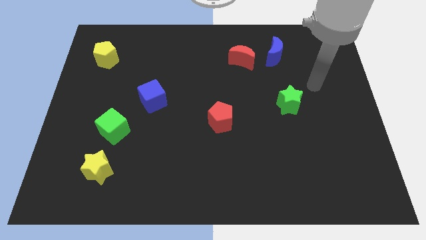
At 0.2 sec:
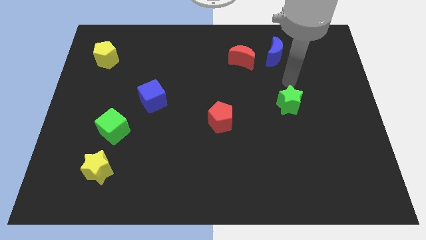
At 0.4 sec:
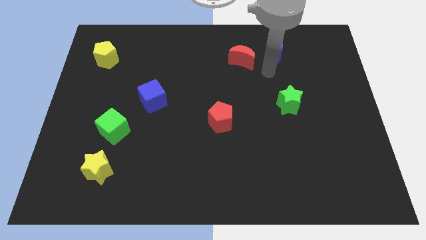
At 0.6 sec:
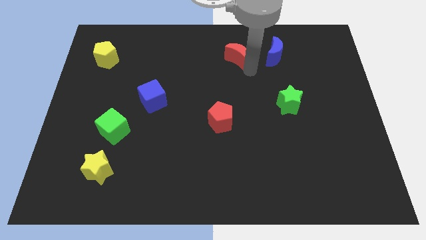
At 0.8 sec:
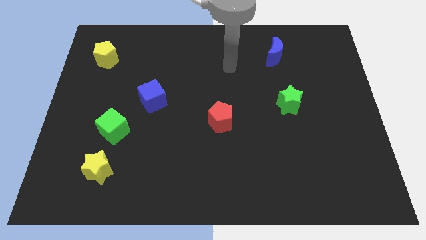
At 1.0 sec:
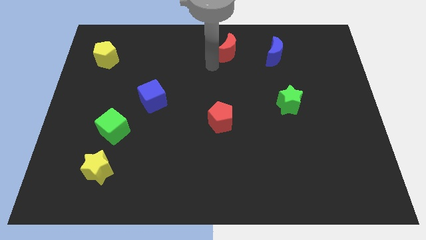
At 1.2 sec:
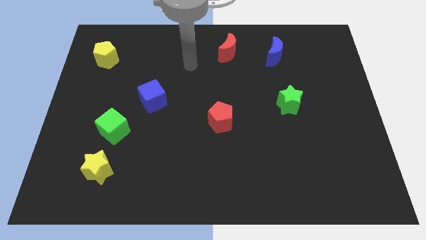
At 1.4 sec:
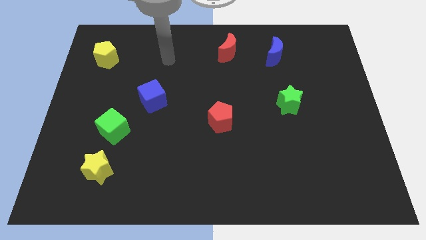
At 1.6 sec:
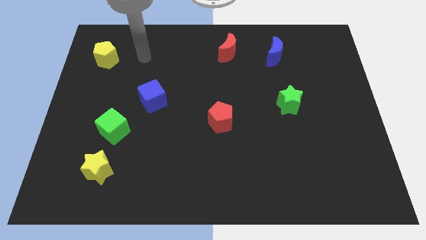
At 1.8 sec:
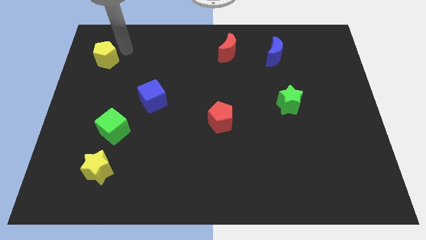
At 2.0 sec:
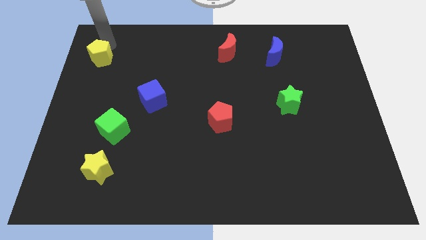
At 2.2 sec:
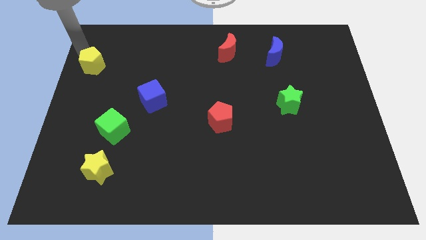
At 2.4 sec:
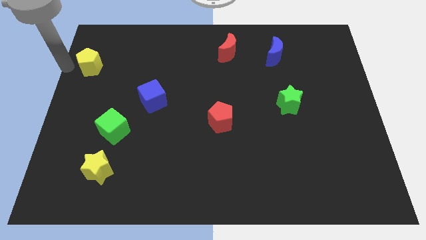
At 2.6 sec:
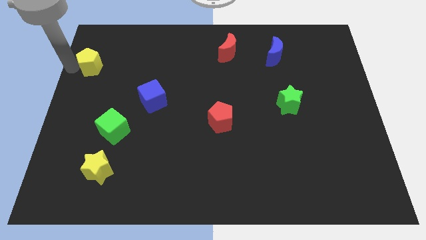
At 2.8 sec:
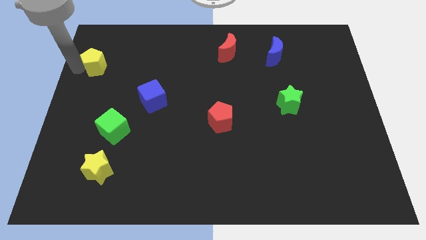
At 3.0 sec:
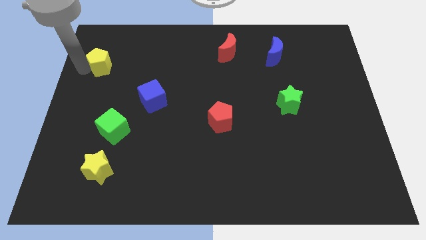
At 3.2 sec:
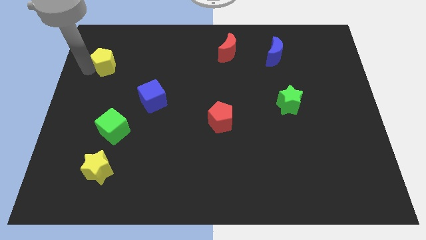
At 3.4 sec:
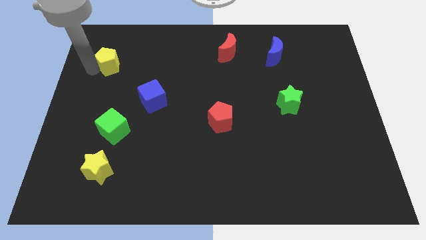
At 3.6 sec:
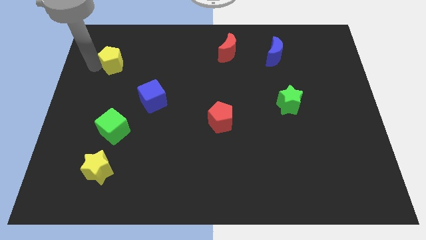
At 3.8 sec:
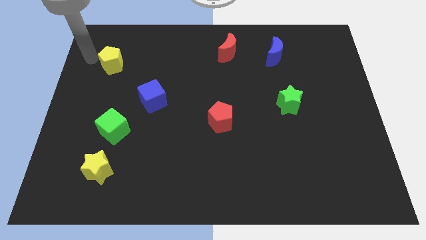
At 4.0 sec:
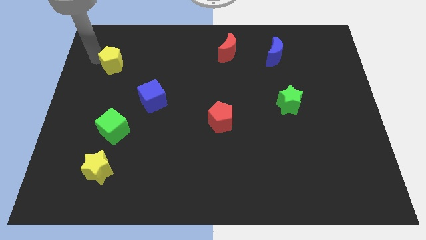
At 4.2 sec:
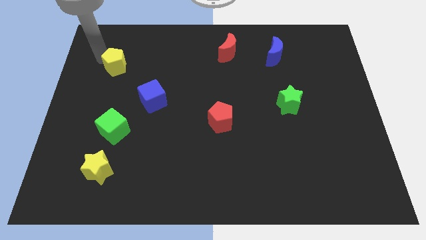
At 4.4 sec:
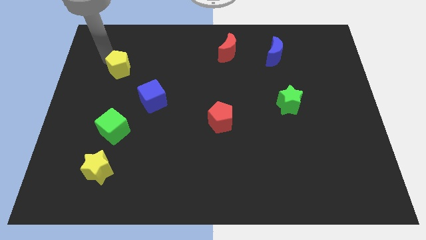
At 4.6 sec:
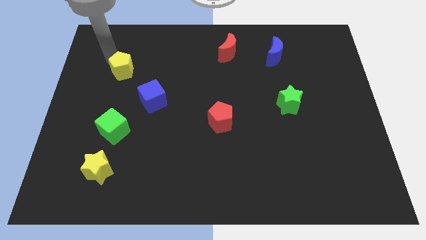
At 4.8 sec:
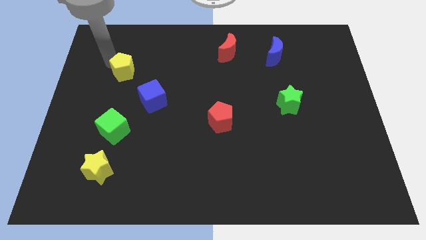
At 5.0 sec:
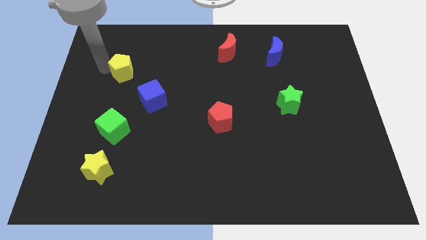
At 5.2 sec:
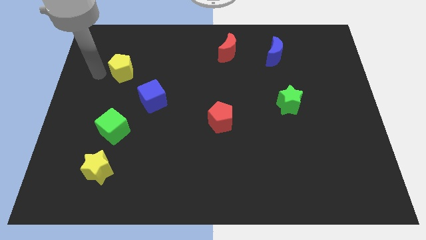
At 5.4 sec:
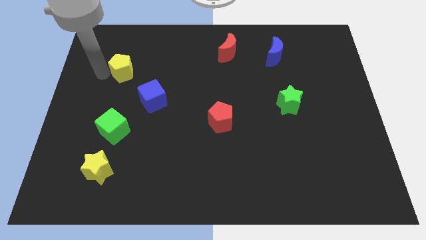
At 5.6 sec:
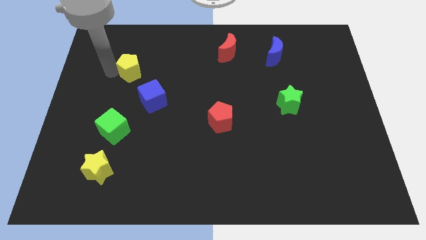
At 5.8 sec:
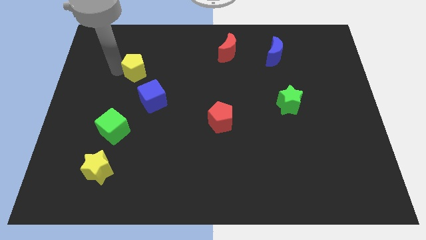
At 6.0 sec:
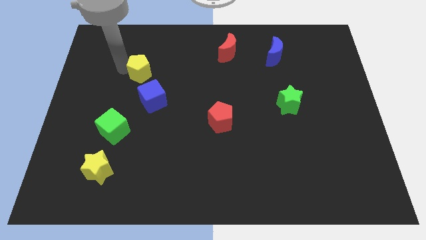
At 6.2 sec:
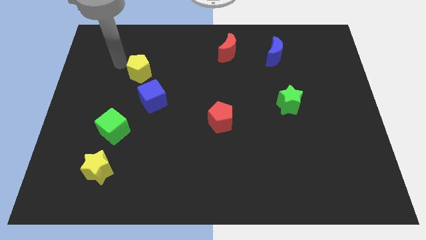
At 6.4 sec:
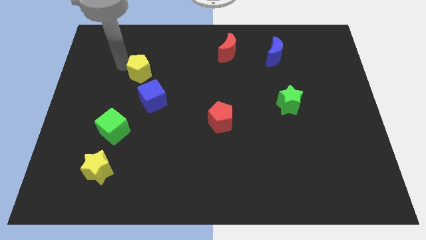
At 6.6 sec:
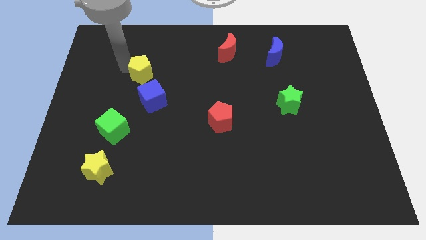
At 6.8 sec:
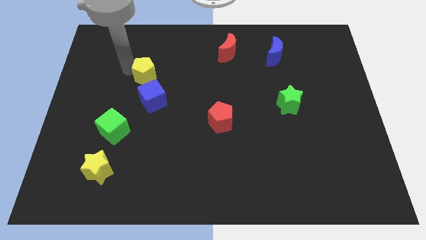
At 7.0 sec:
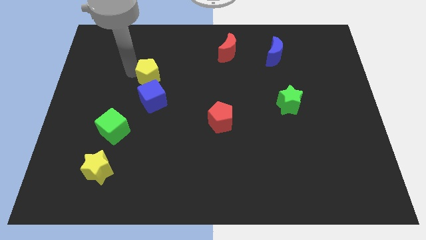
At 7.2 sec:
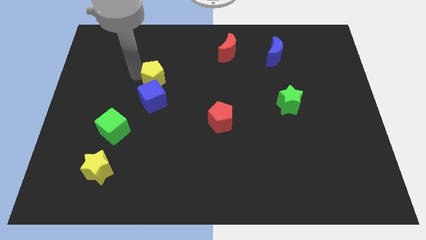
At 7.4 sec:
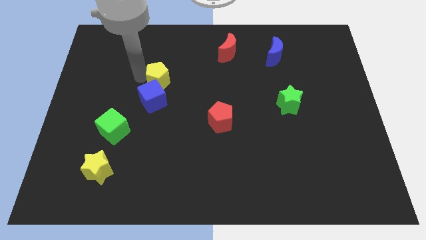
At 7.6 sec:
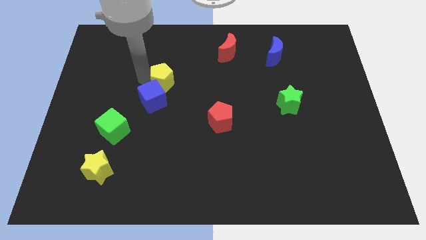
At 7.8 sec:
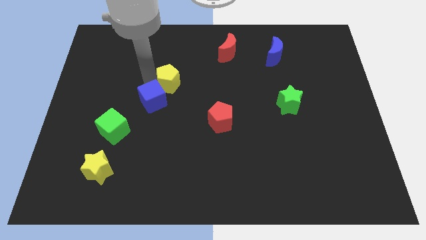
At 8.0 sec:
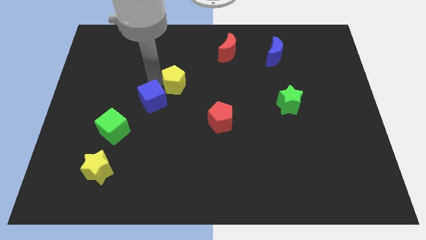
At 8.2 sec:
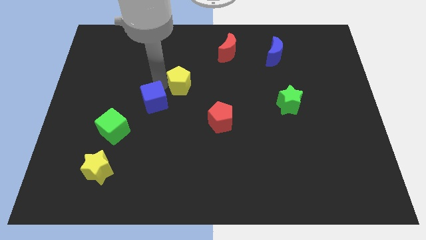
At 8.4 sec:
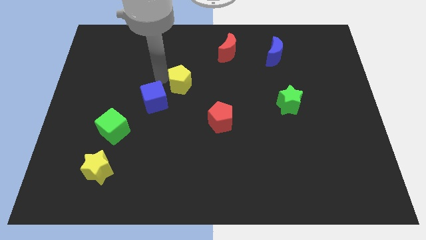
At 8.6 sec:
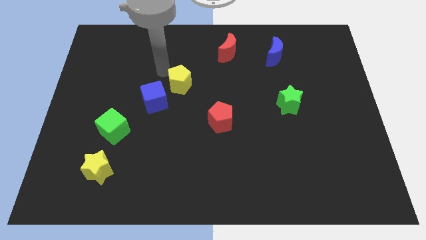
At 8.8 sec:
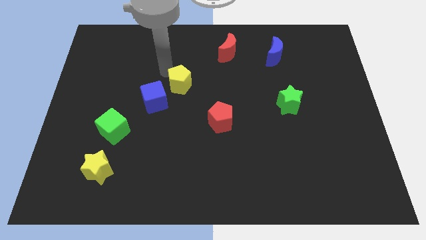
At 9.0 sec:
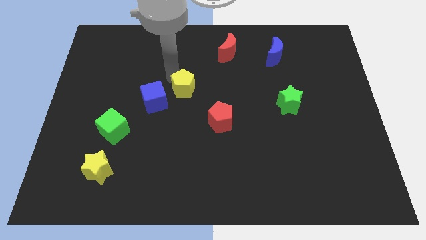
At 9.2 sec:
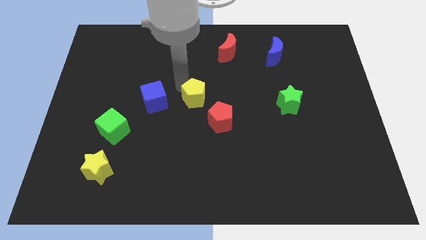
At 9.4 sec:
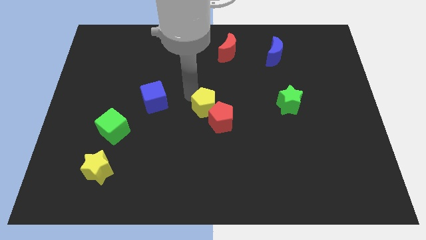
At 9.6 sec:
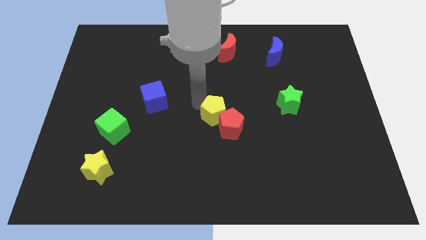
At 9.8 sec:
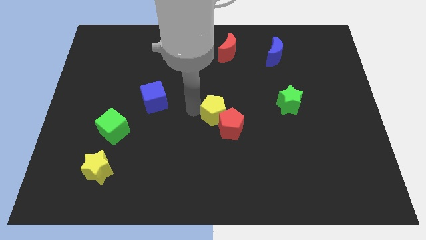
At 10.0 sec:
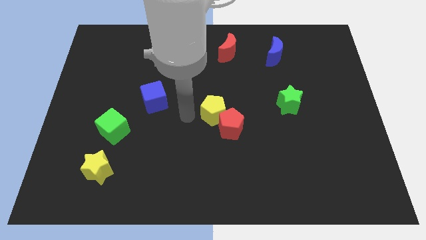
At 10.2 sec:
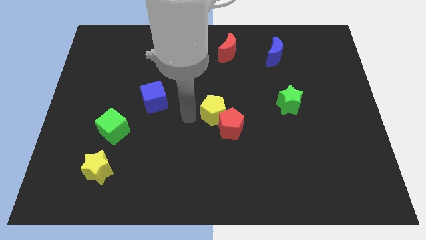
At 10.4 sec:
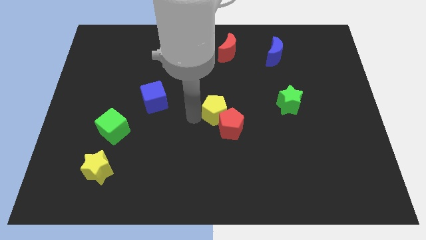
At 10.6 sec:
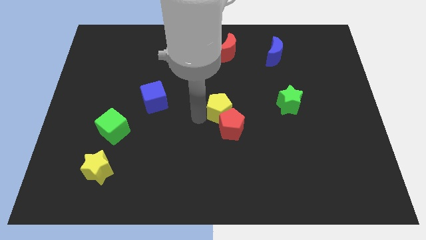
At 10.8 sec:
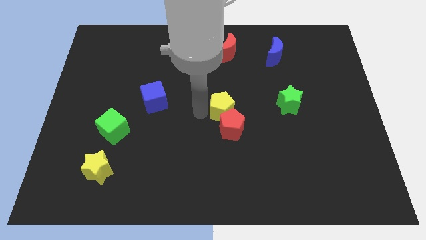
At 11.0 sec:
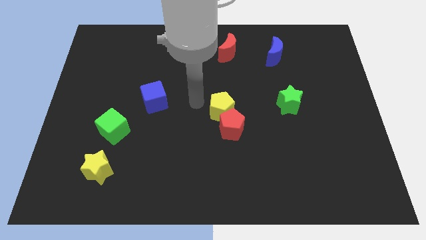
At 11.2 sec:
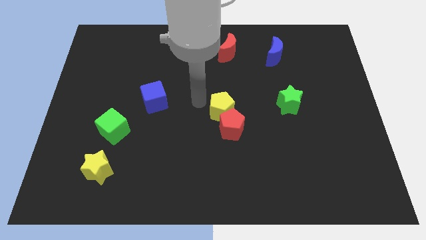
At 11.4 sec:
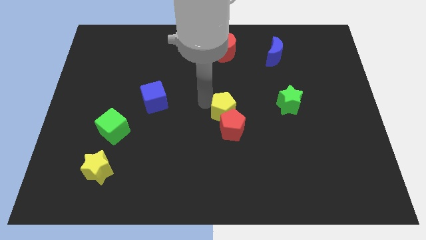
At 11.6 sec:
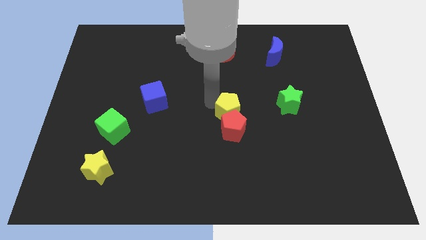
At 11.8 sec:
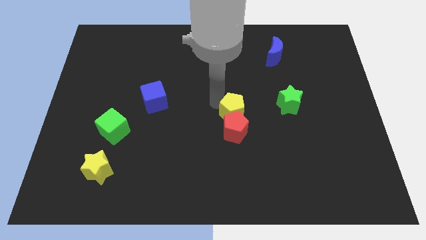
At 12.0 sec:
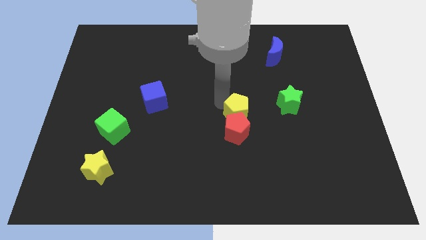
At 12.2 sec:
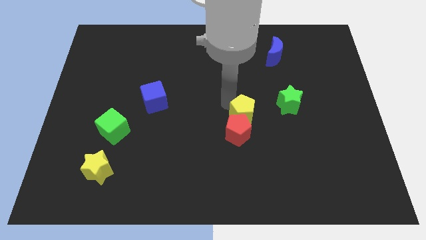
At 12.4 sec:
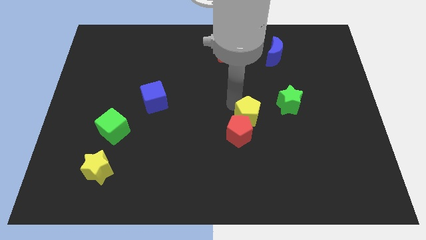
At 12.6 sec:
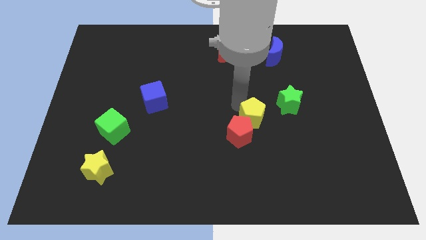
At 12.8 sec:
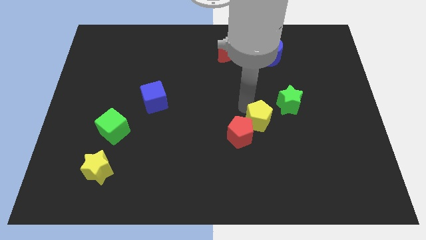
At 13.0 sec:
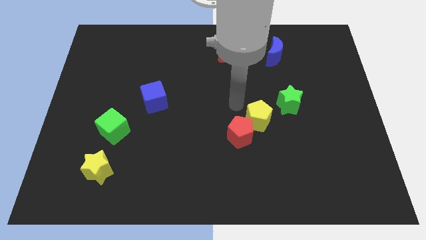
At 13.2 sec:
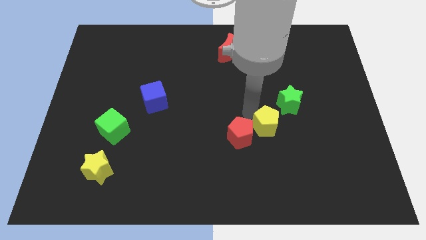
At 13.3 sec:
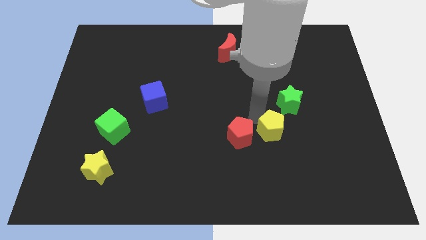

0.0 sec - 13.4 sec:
slide the yellow pentagon to the bottom side of the green star

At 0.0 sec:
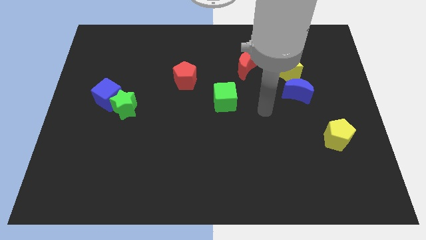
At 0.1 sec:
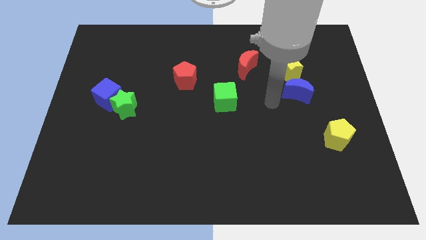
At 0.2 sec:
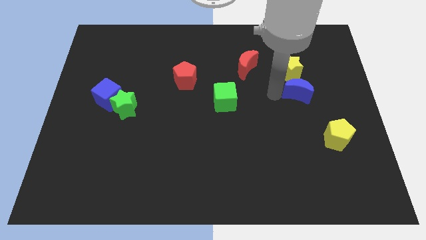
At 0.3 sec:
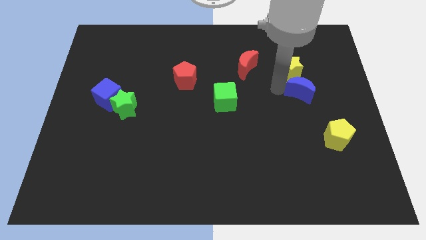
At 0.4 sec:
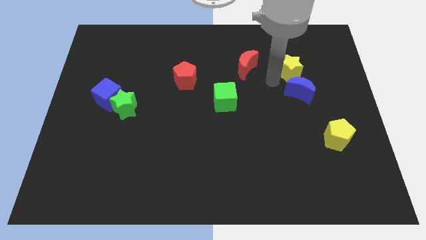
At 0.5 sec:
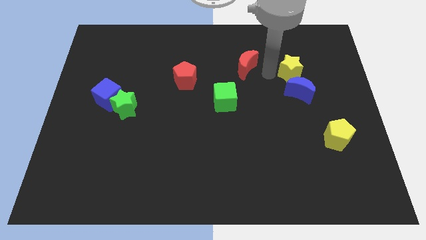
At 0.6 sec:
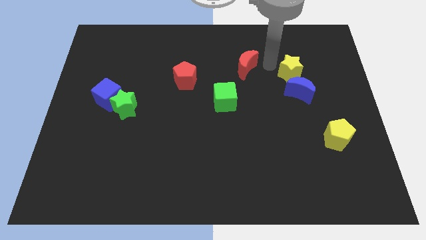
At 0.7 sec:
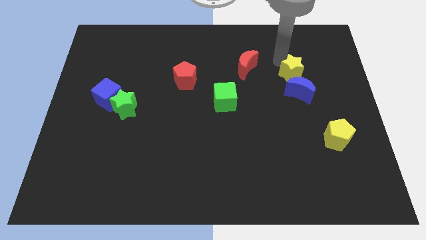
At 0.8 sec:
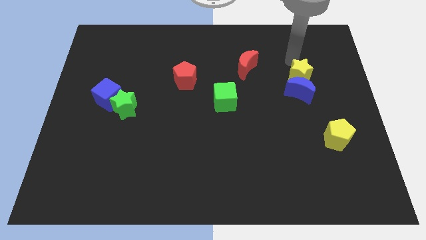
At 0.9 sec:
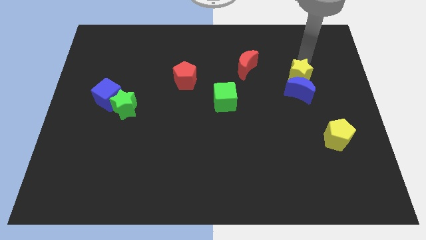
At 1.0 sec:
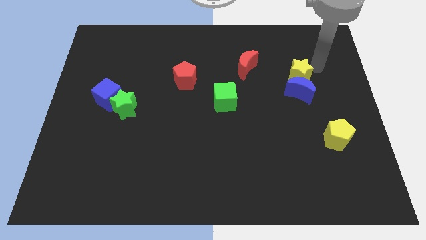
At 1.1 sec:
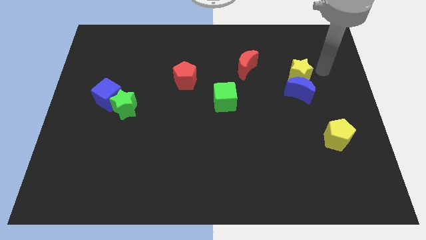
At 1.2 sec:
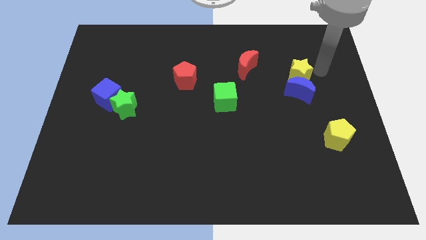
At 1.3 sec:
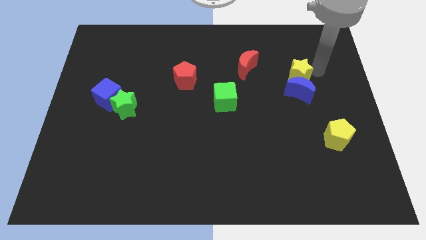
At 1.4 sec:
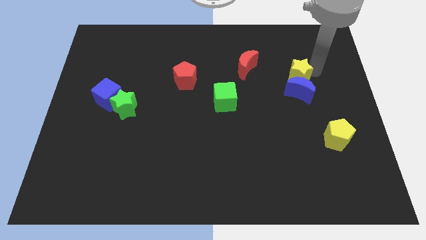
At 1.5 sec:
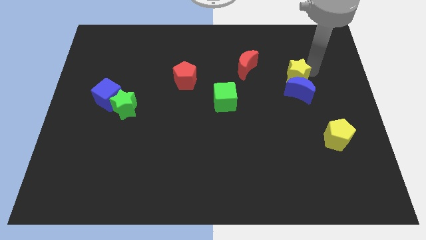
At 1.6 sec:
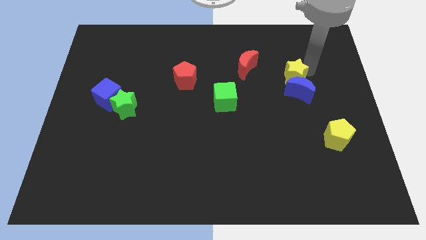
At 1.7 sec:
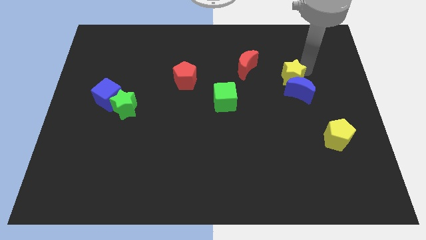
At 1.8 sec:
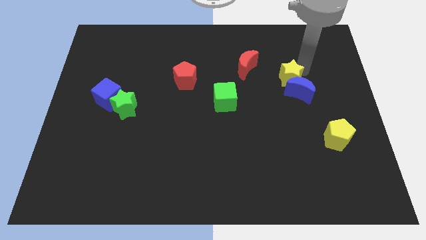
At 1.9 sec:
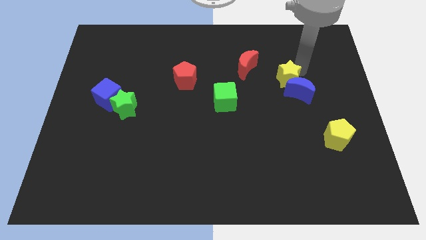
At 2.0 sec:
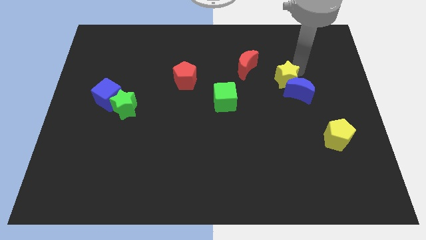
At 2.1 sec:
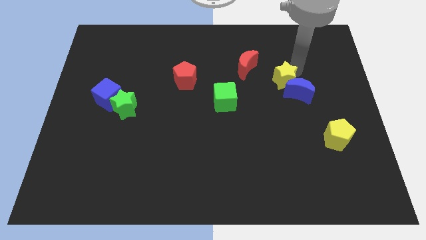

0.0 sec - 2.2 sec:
move the yellow star to the left side of the blue moon
